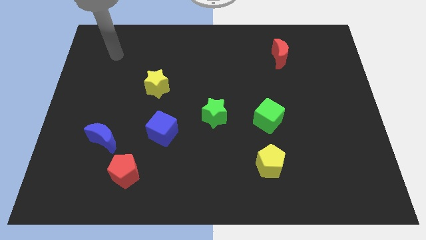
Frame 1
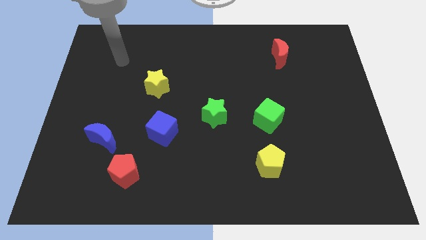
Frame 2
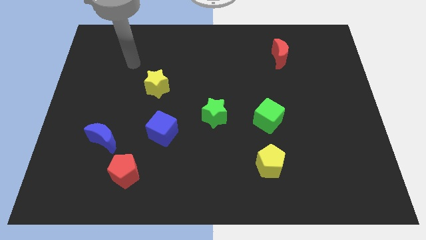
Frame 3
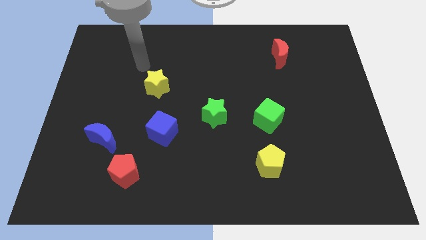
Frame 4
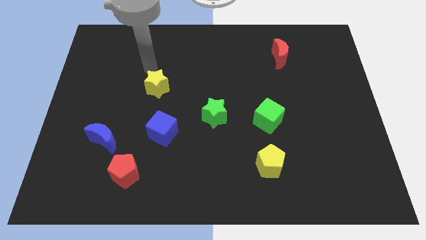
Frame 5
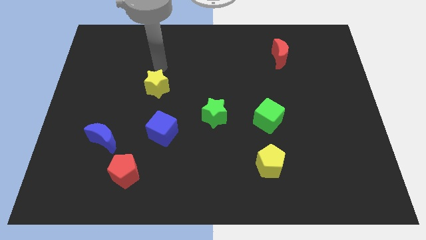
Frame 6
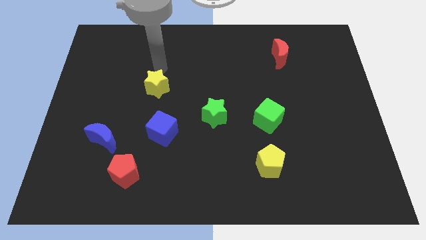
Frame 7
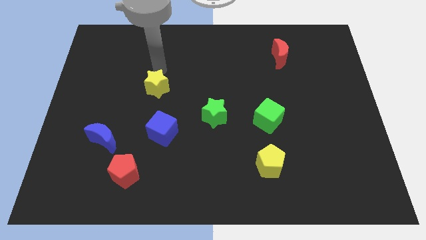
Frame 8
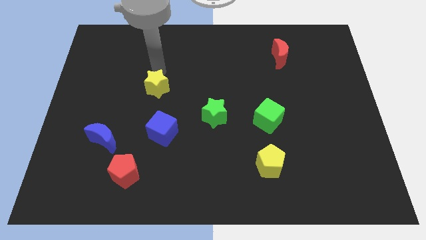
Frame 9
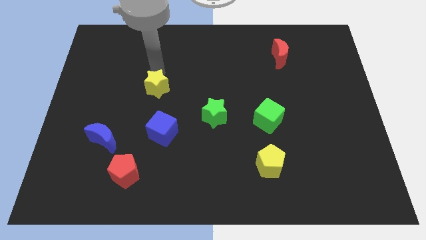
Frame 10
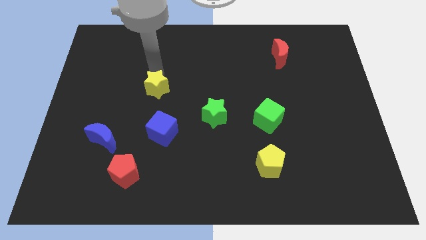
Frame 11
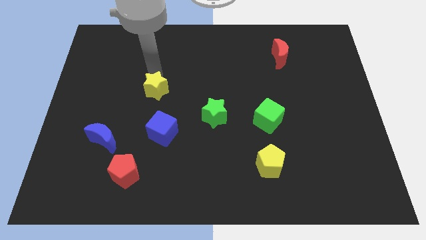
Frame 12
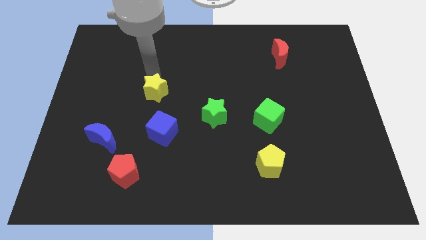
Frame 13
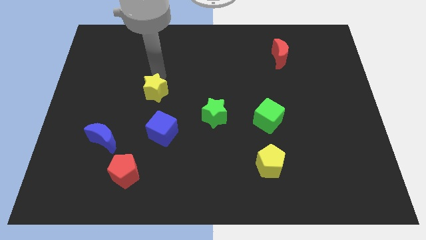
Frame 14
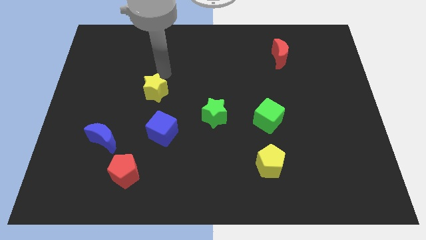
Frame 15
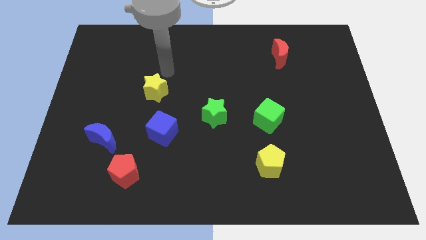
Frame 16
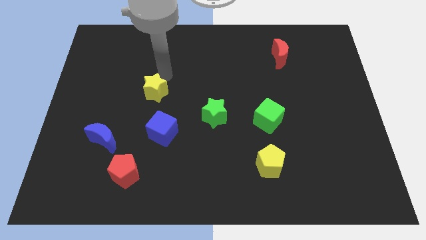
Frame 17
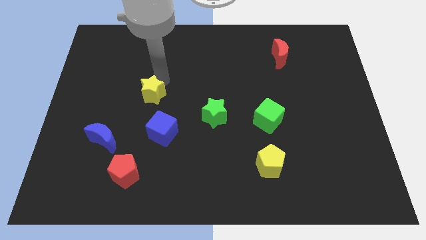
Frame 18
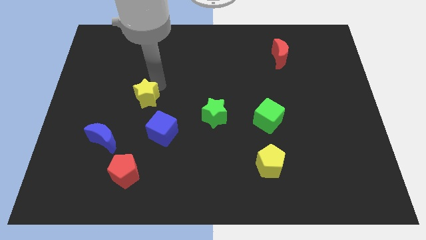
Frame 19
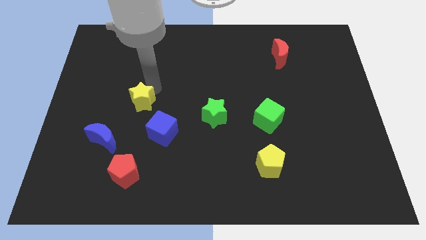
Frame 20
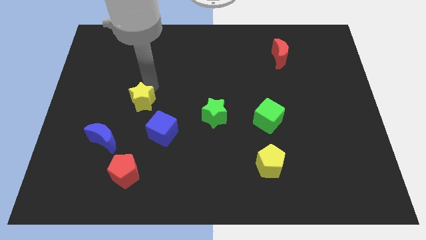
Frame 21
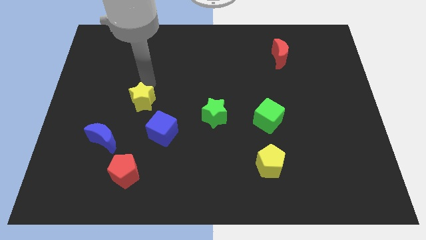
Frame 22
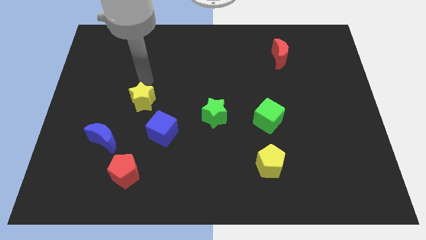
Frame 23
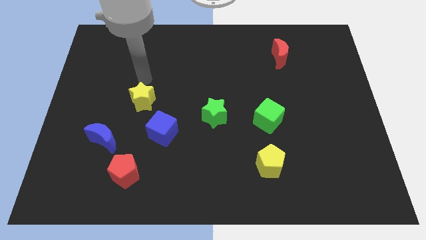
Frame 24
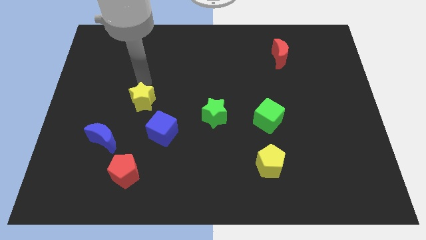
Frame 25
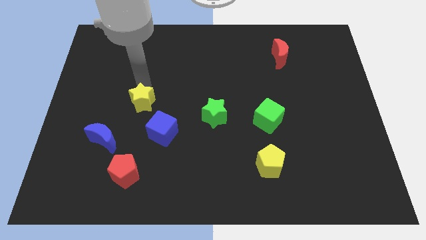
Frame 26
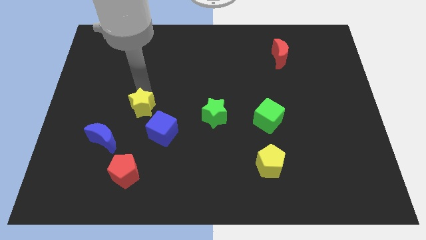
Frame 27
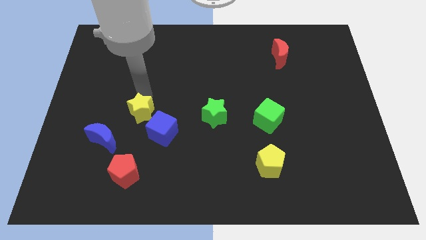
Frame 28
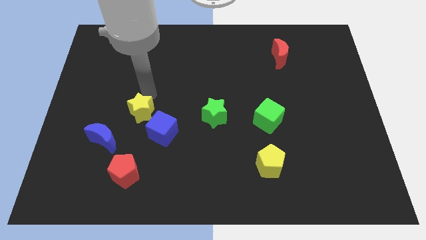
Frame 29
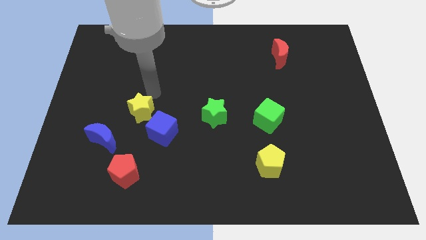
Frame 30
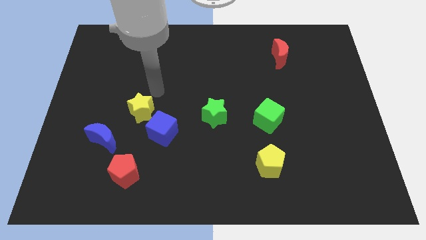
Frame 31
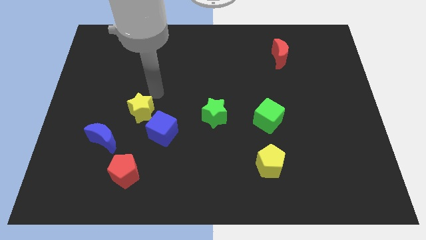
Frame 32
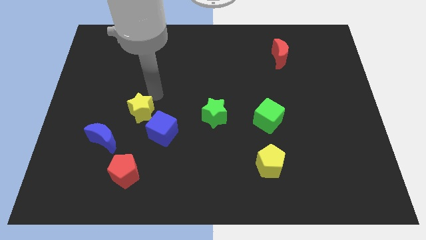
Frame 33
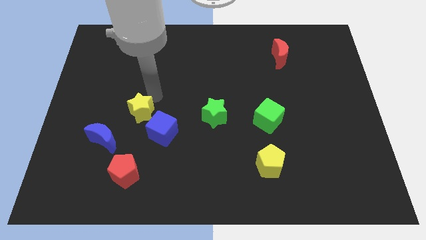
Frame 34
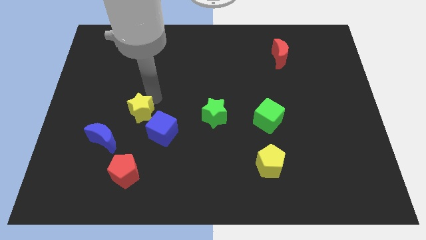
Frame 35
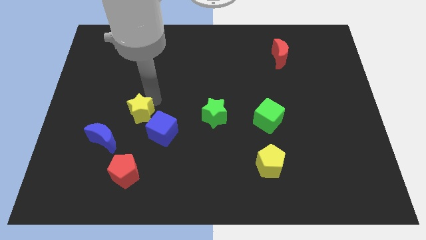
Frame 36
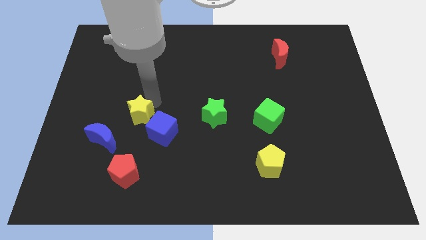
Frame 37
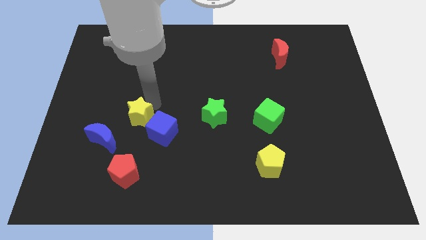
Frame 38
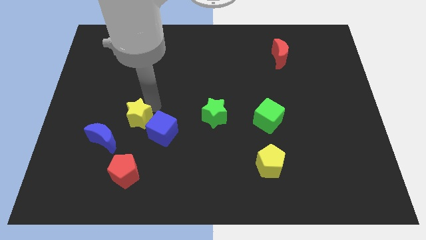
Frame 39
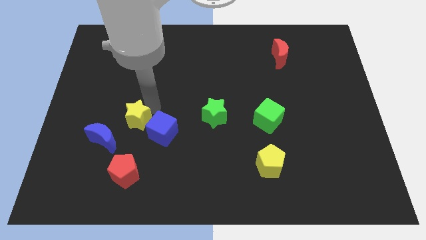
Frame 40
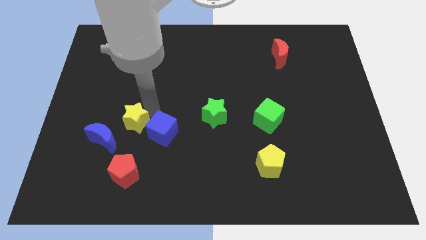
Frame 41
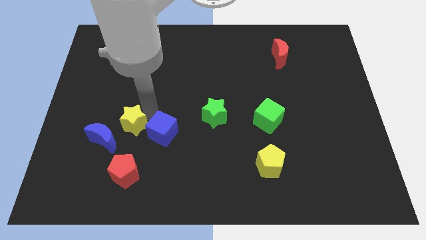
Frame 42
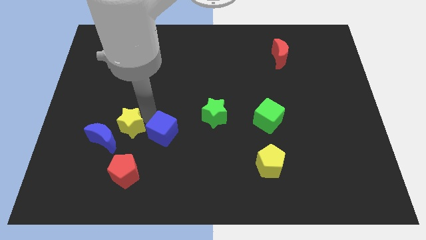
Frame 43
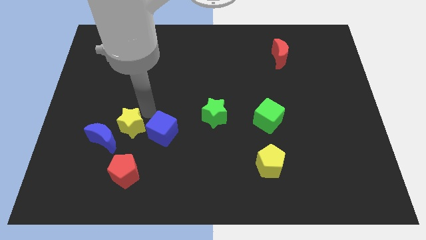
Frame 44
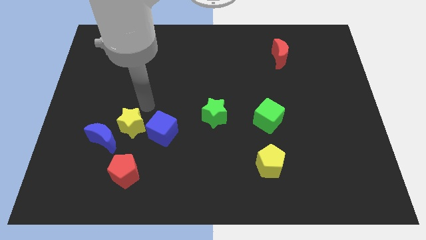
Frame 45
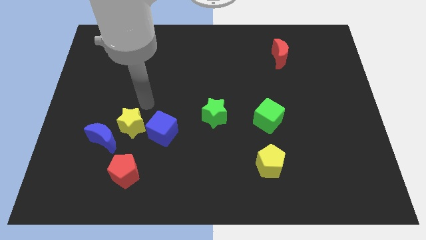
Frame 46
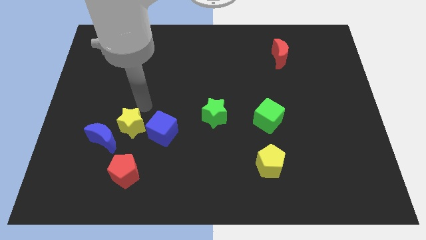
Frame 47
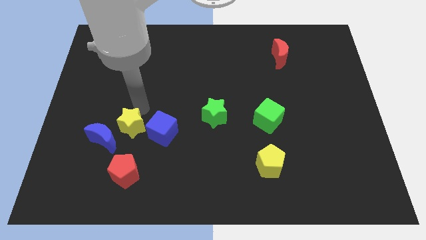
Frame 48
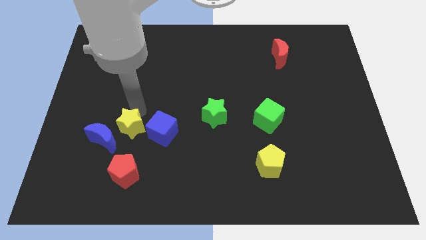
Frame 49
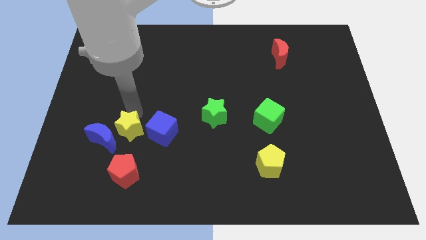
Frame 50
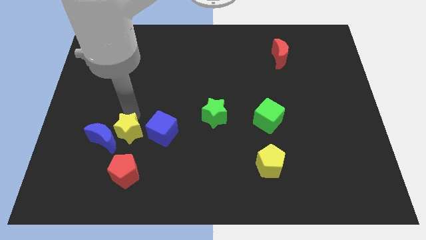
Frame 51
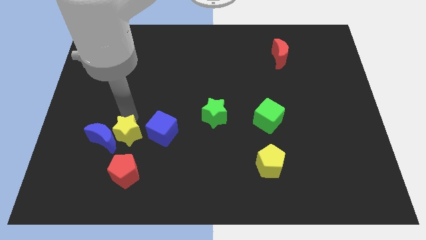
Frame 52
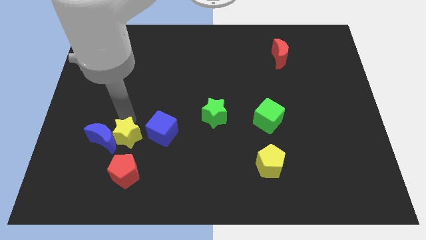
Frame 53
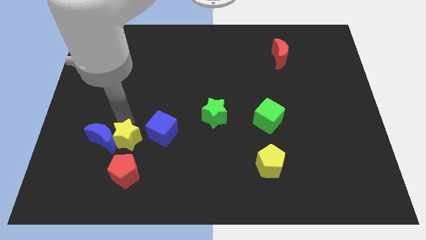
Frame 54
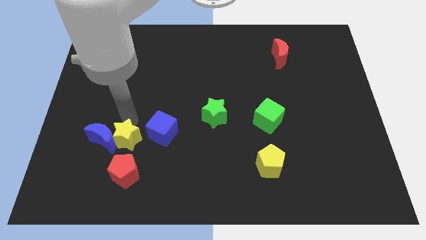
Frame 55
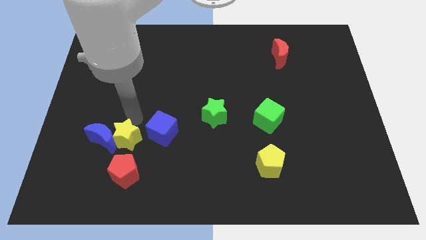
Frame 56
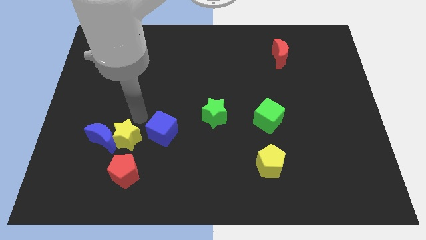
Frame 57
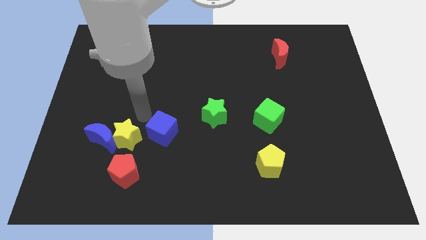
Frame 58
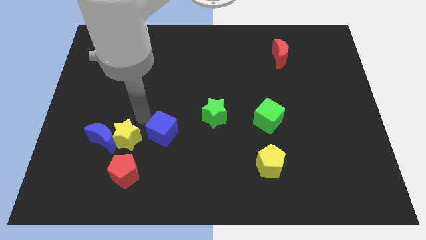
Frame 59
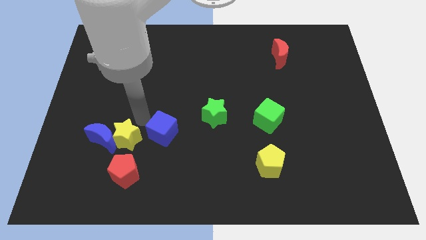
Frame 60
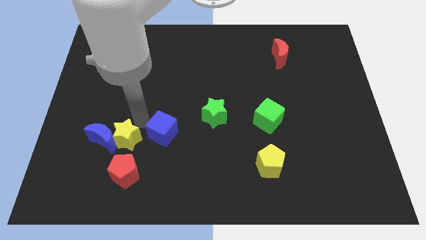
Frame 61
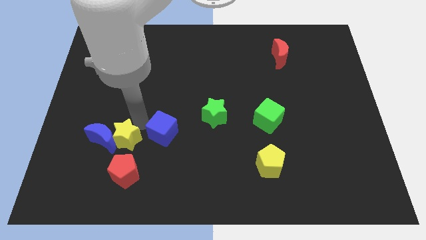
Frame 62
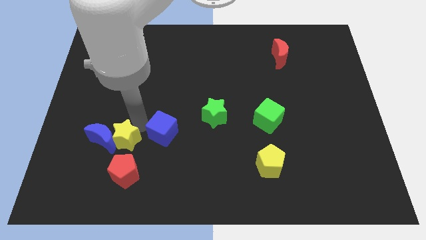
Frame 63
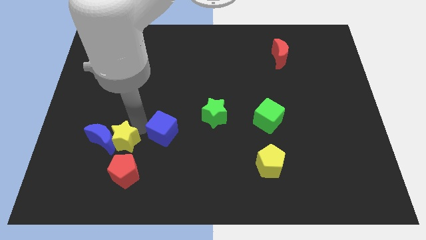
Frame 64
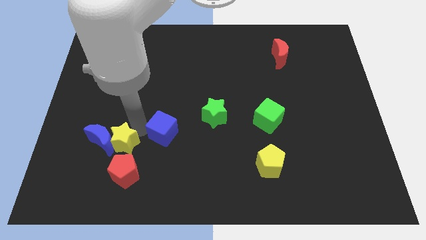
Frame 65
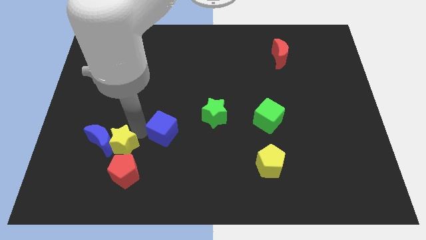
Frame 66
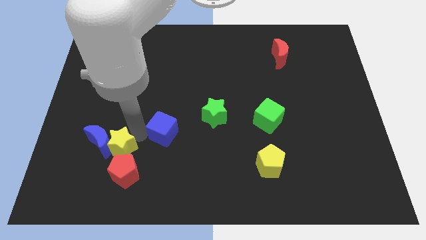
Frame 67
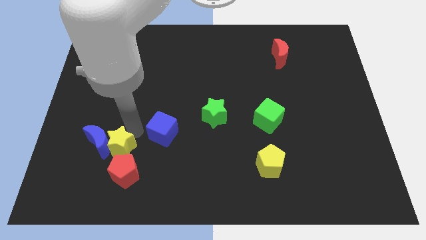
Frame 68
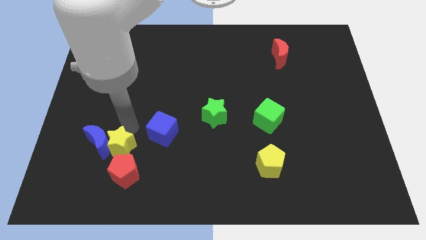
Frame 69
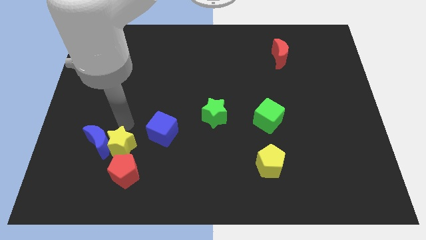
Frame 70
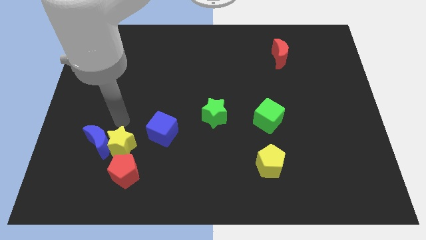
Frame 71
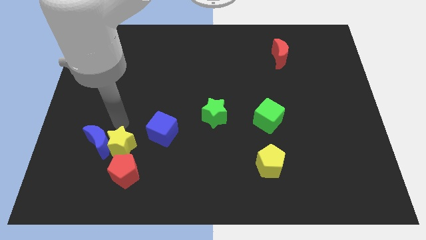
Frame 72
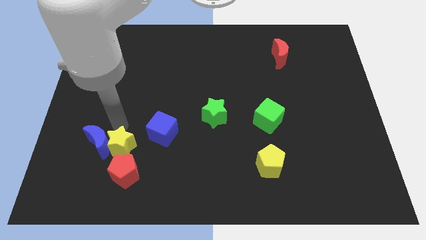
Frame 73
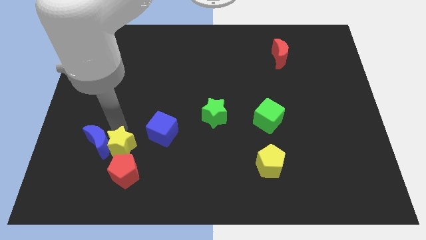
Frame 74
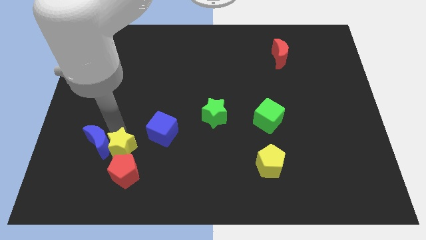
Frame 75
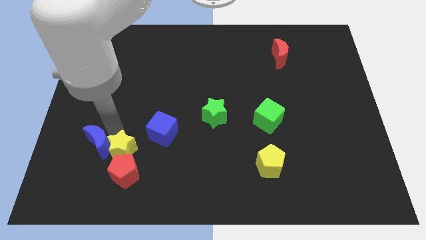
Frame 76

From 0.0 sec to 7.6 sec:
slide the yellow star close to the red pentagon
